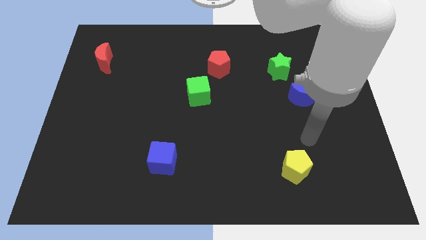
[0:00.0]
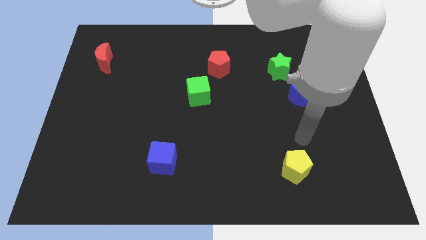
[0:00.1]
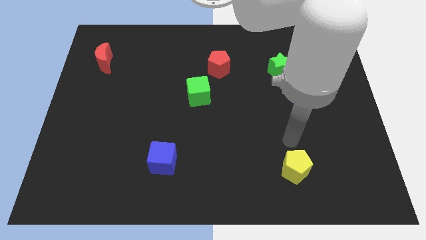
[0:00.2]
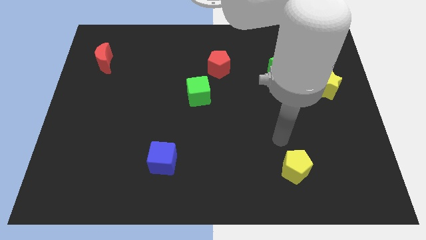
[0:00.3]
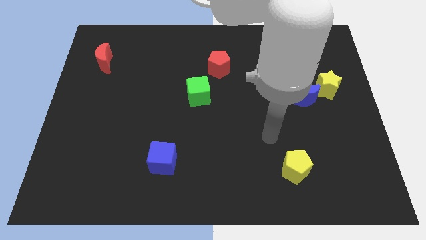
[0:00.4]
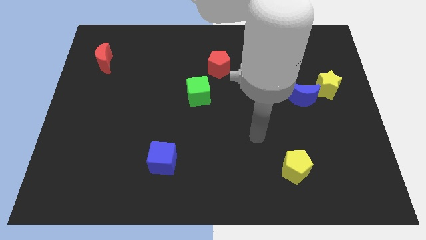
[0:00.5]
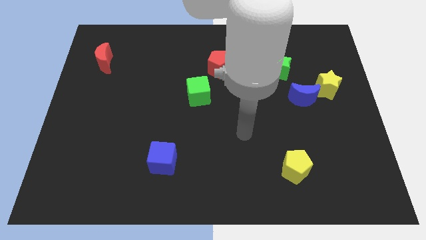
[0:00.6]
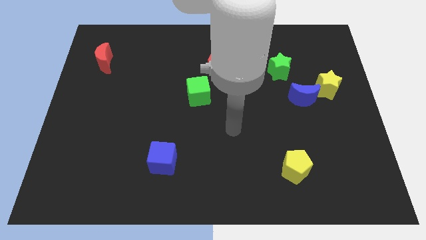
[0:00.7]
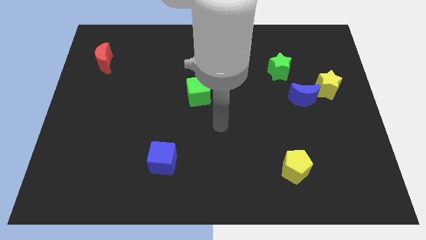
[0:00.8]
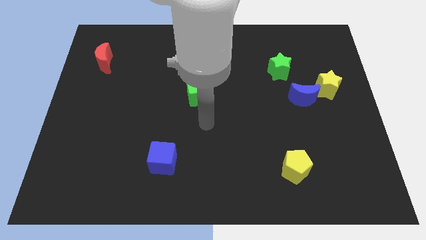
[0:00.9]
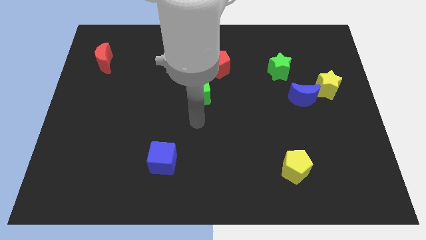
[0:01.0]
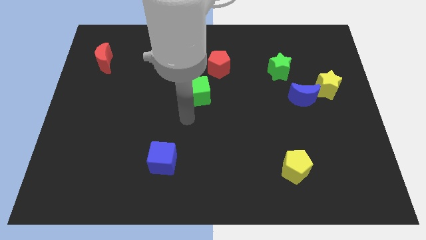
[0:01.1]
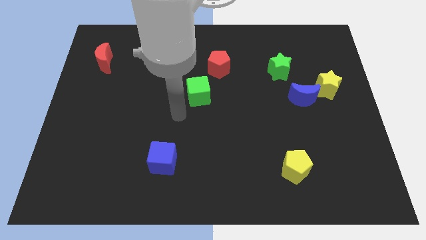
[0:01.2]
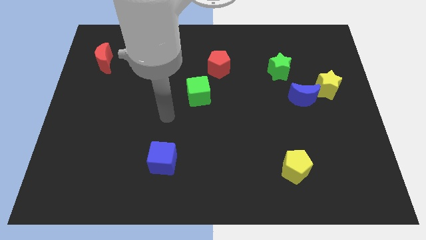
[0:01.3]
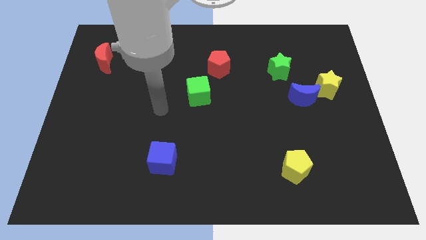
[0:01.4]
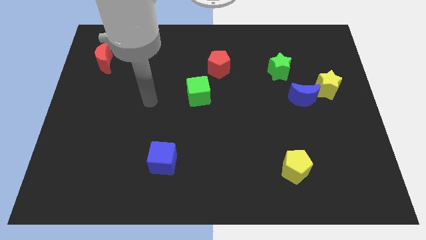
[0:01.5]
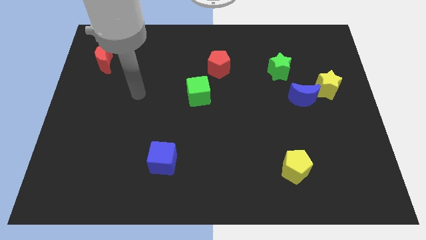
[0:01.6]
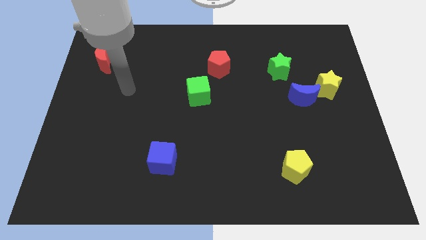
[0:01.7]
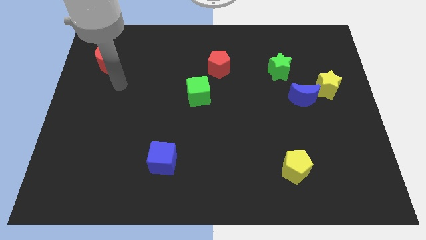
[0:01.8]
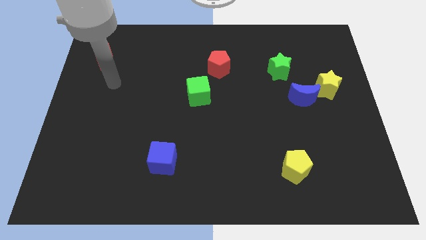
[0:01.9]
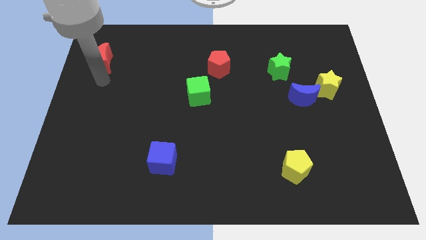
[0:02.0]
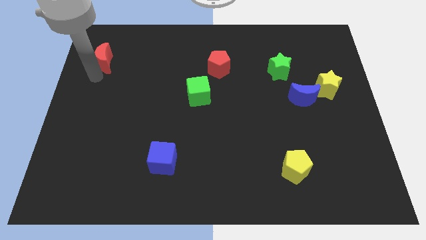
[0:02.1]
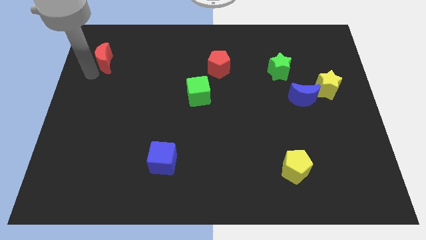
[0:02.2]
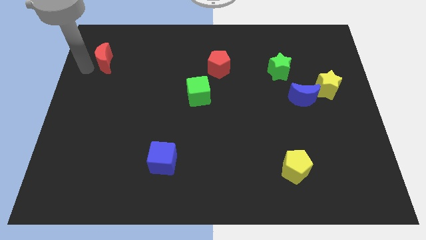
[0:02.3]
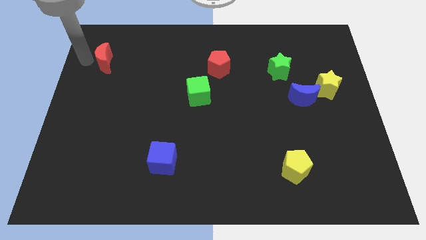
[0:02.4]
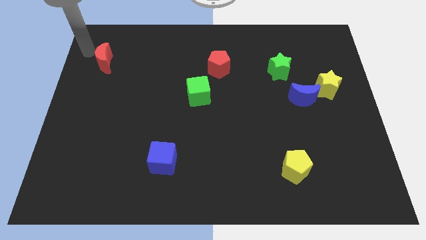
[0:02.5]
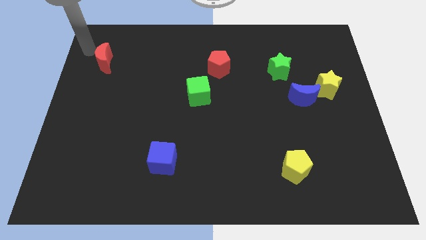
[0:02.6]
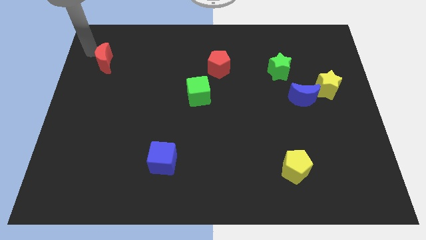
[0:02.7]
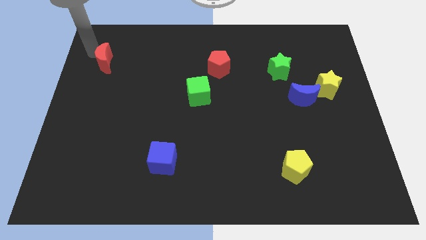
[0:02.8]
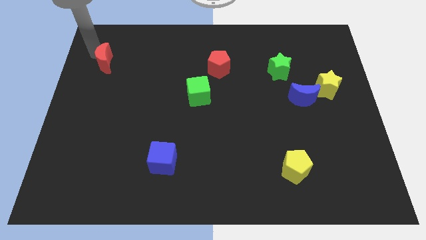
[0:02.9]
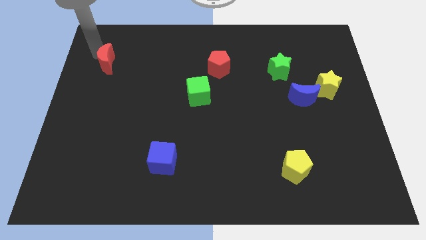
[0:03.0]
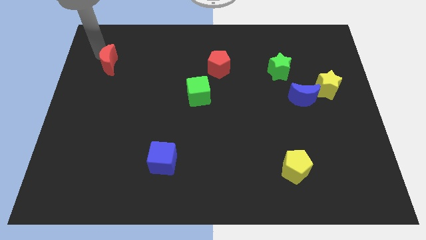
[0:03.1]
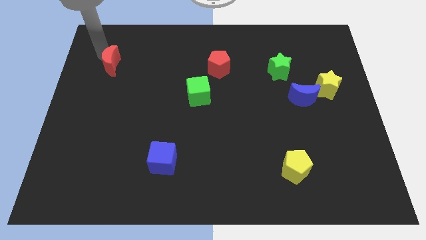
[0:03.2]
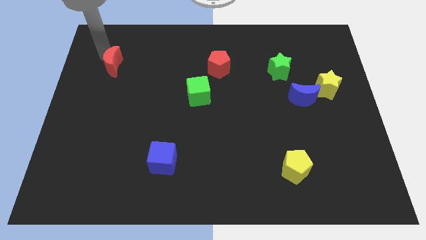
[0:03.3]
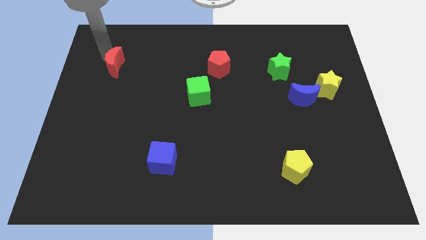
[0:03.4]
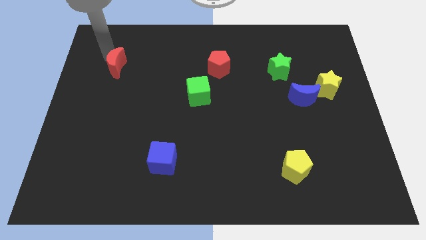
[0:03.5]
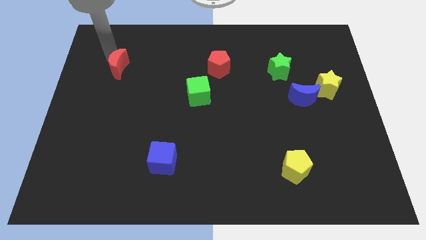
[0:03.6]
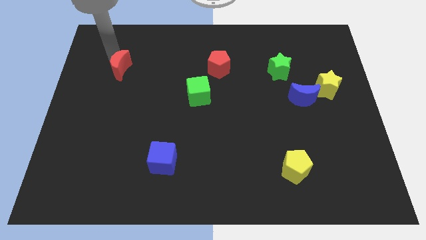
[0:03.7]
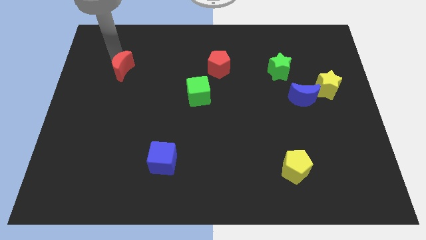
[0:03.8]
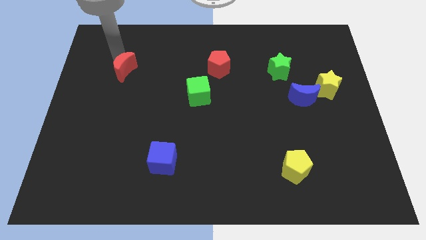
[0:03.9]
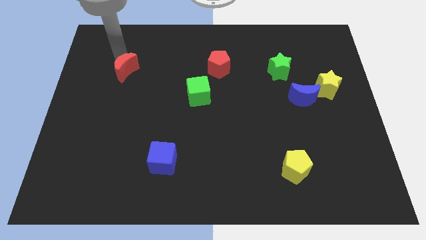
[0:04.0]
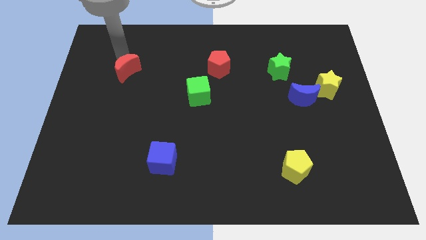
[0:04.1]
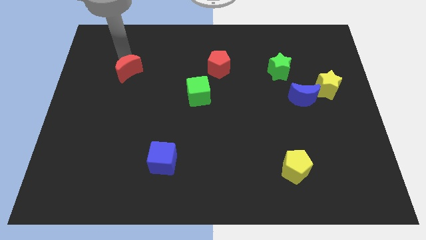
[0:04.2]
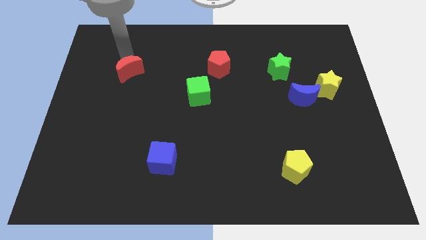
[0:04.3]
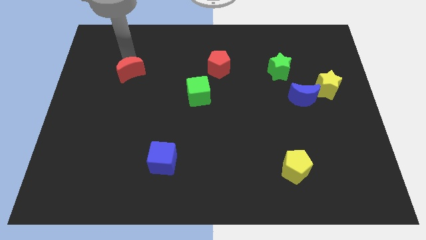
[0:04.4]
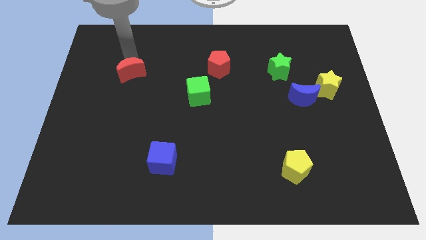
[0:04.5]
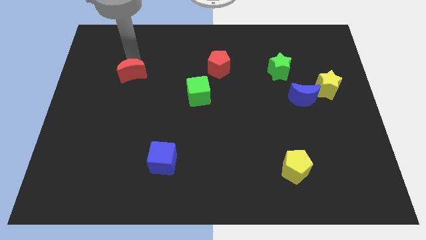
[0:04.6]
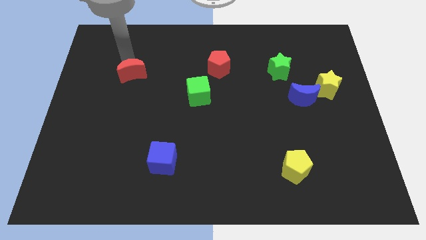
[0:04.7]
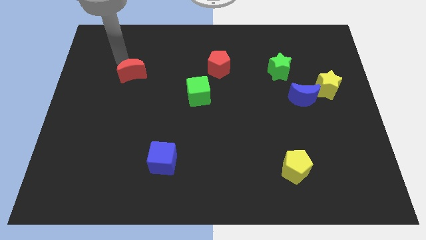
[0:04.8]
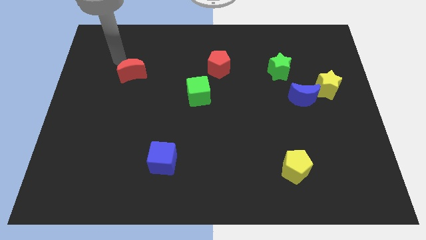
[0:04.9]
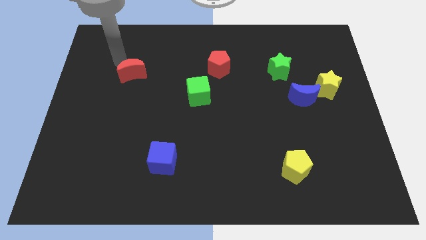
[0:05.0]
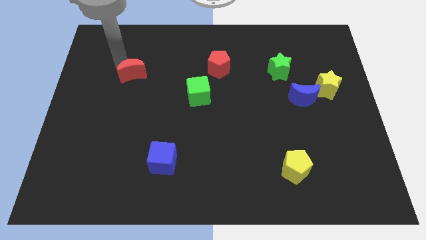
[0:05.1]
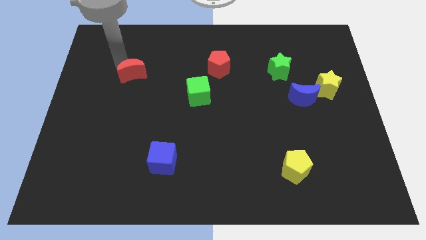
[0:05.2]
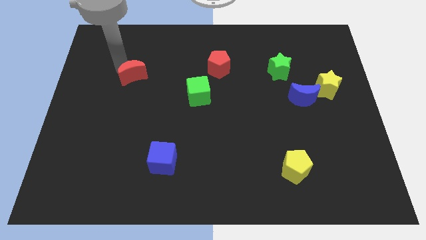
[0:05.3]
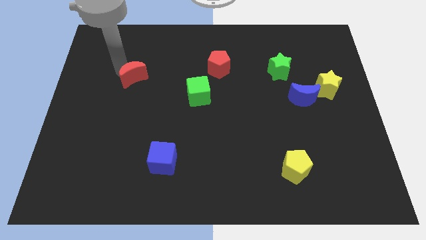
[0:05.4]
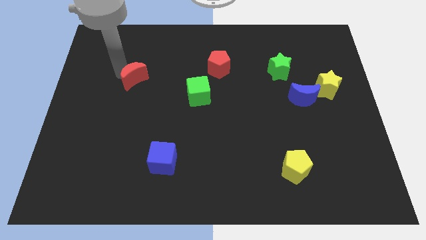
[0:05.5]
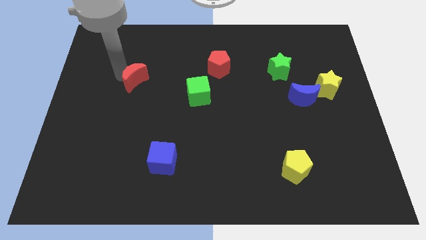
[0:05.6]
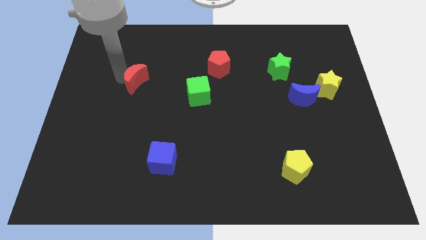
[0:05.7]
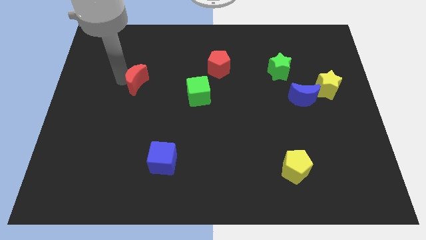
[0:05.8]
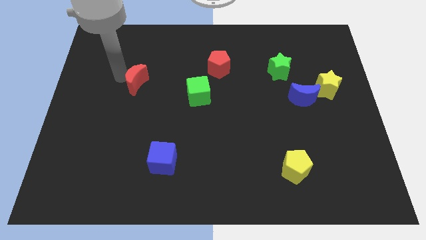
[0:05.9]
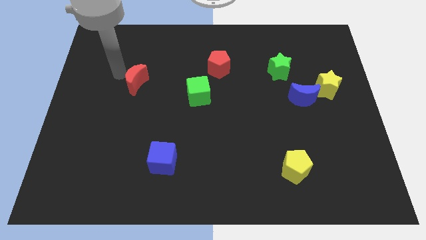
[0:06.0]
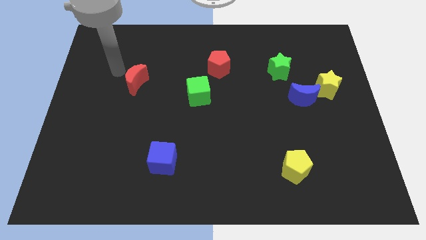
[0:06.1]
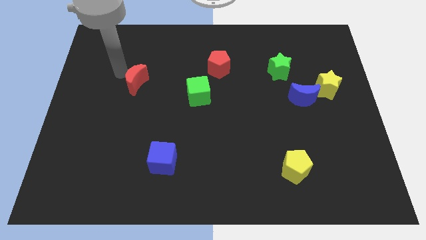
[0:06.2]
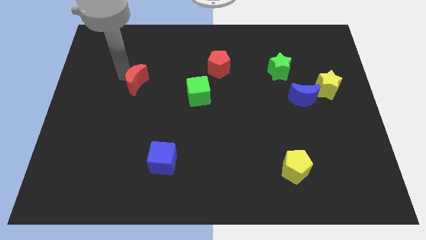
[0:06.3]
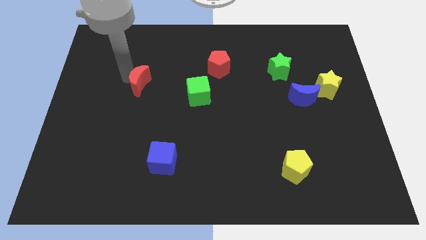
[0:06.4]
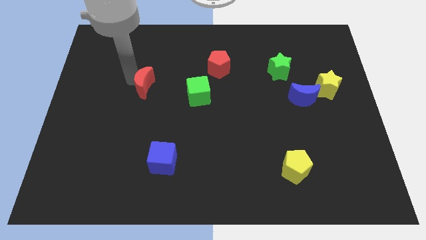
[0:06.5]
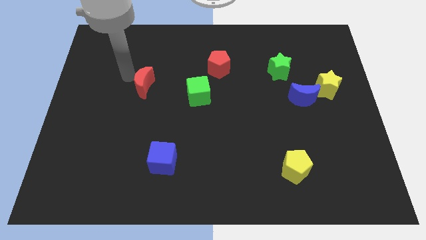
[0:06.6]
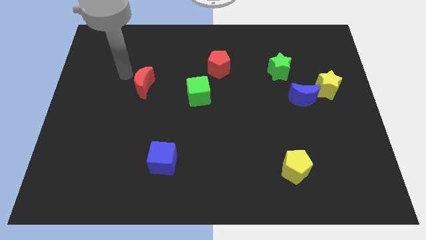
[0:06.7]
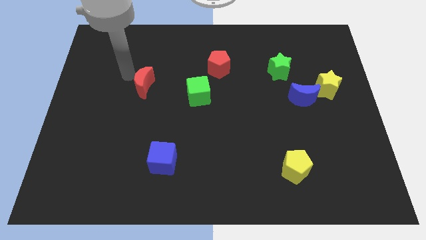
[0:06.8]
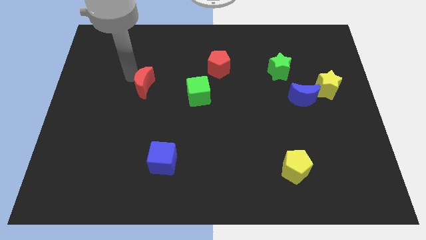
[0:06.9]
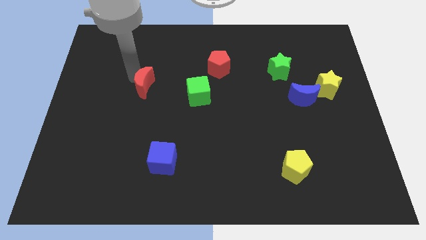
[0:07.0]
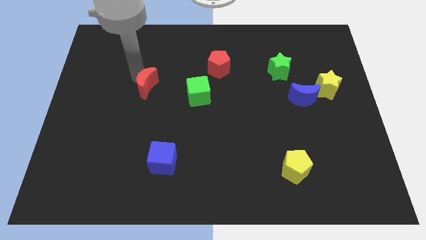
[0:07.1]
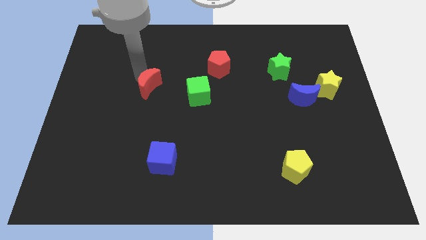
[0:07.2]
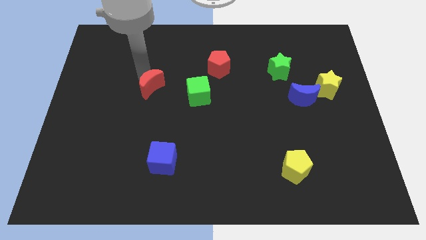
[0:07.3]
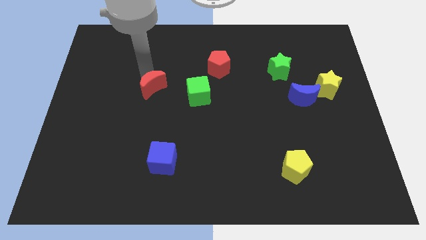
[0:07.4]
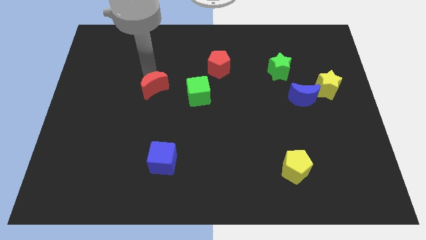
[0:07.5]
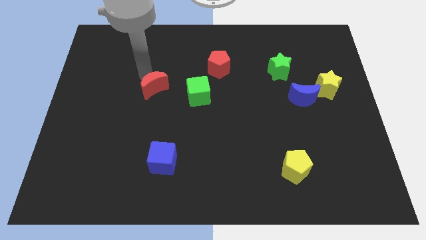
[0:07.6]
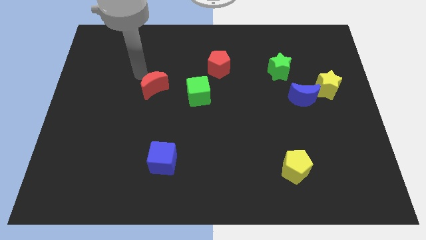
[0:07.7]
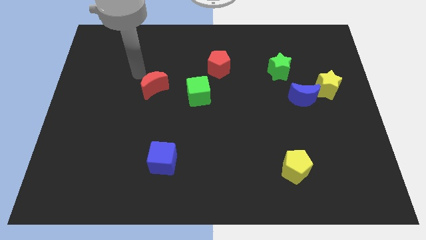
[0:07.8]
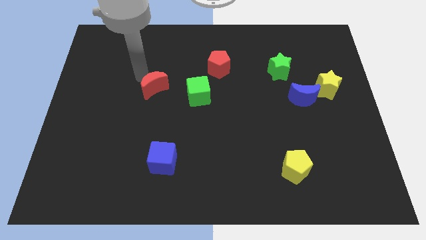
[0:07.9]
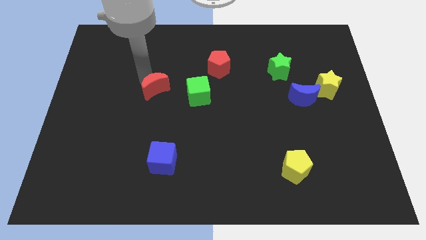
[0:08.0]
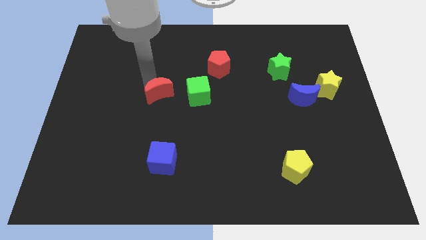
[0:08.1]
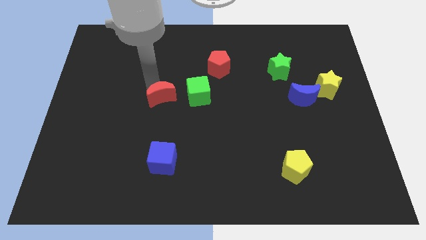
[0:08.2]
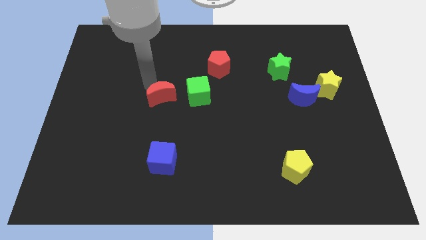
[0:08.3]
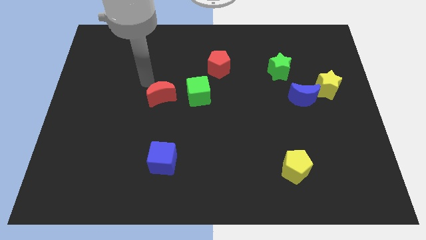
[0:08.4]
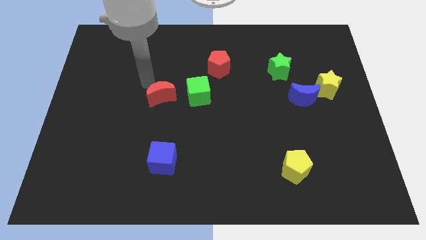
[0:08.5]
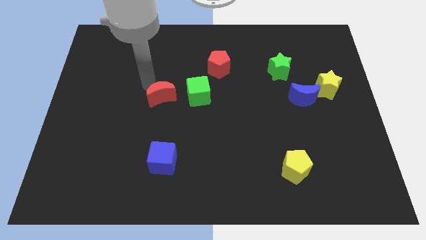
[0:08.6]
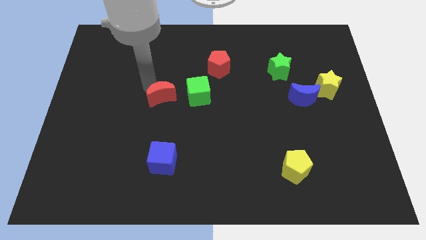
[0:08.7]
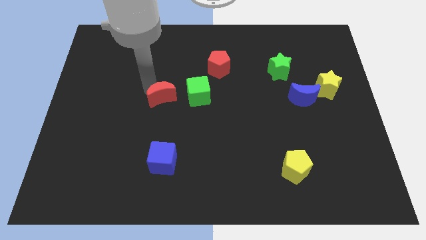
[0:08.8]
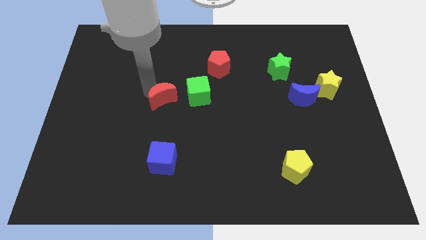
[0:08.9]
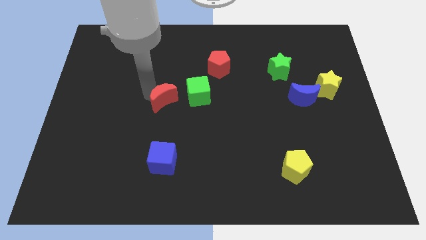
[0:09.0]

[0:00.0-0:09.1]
move the red moon to the bottom left side of the green cube
